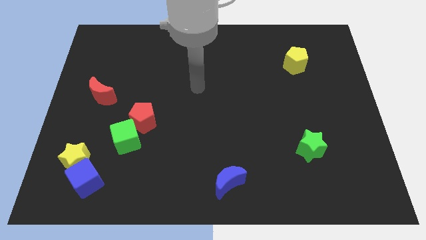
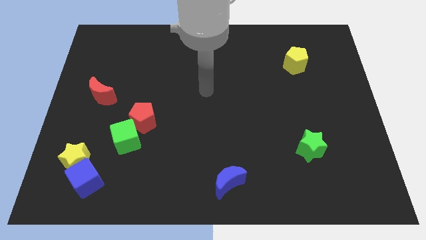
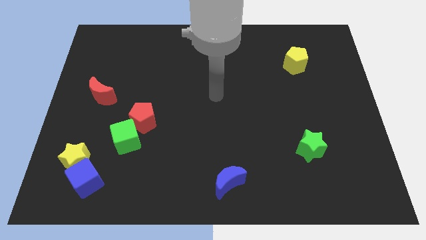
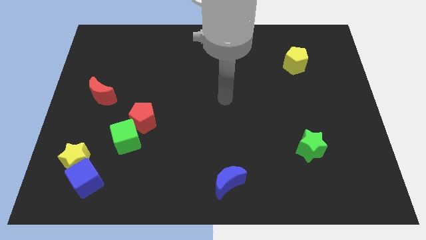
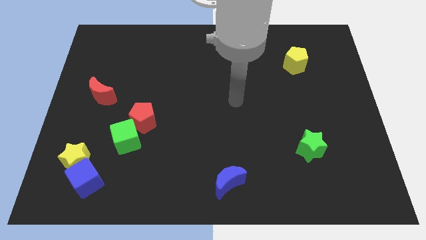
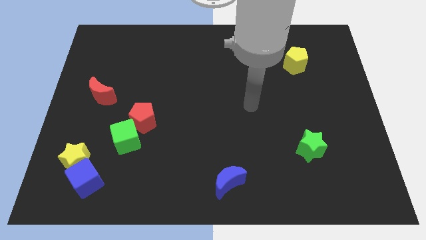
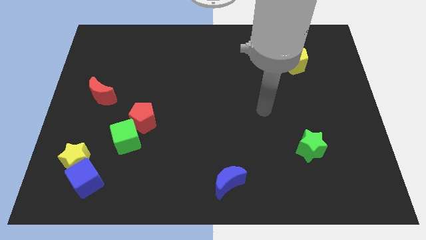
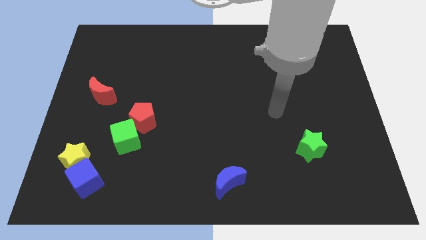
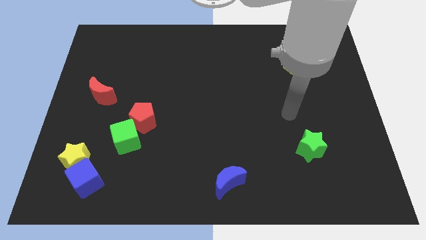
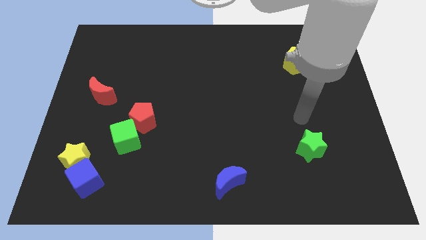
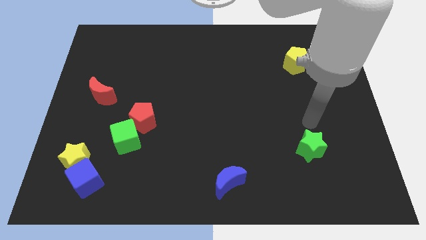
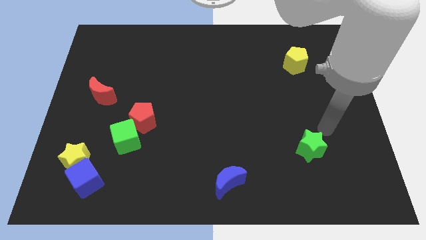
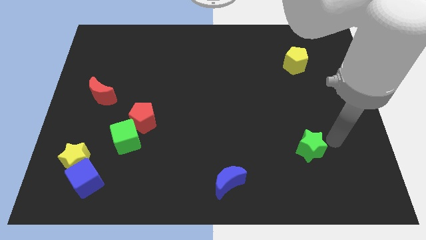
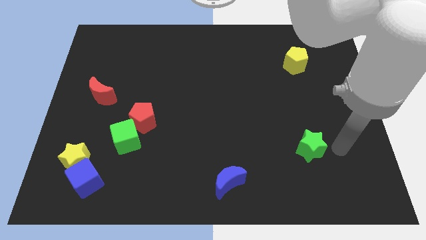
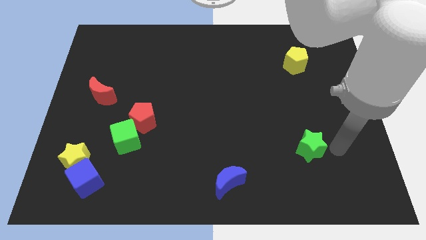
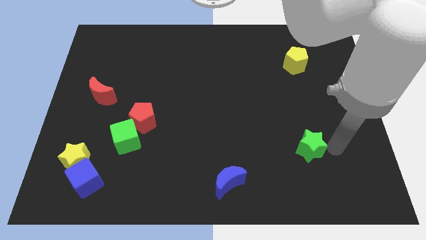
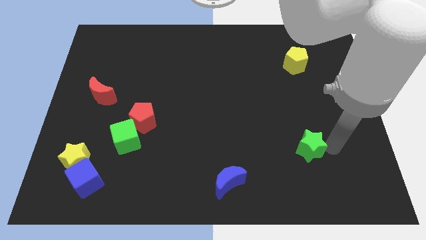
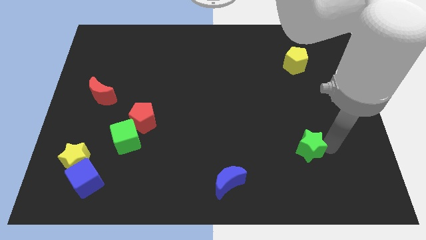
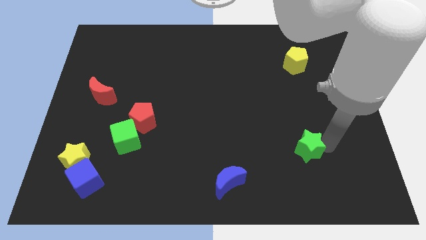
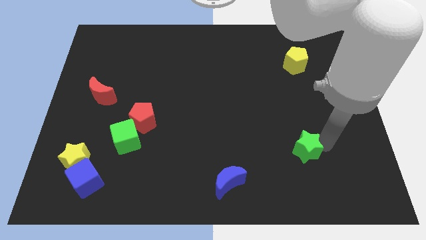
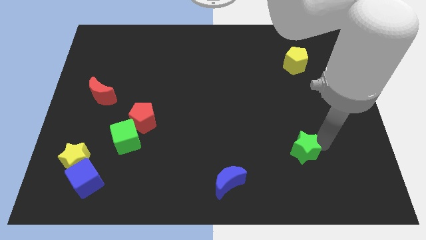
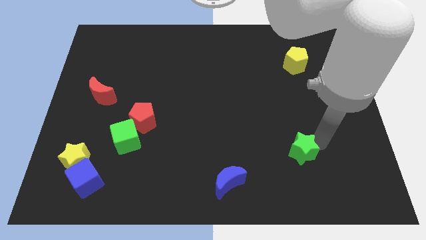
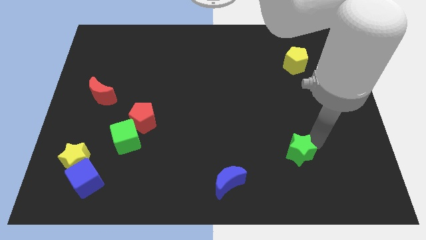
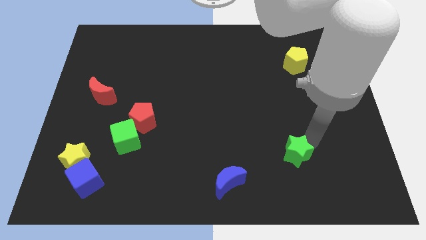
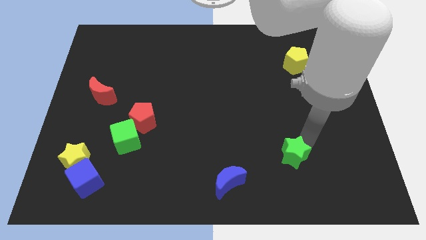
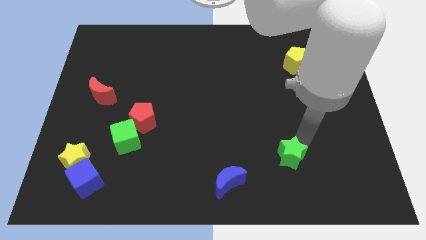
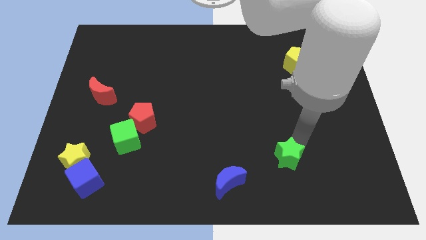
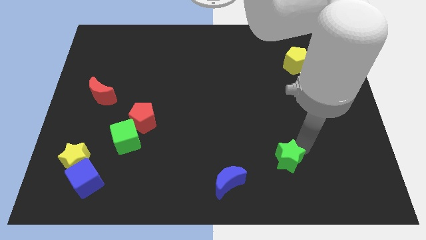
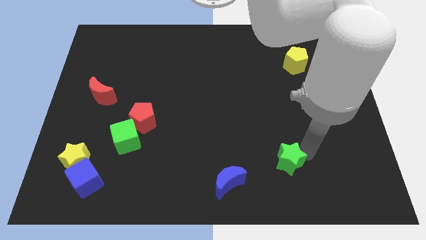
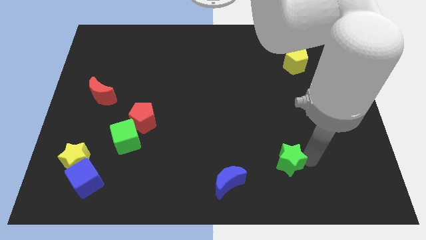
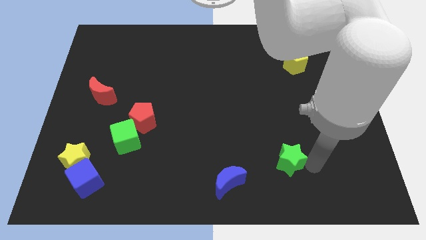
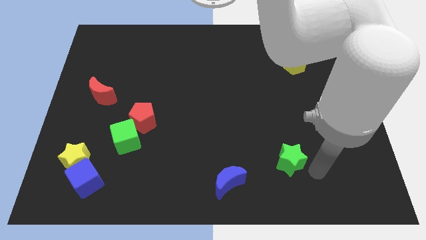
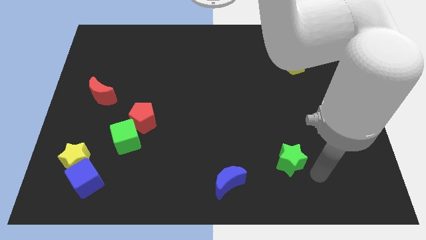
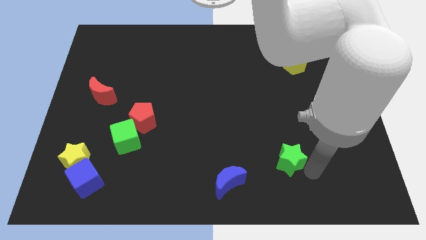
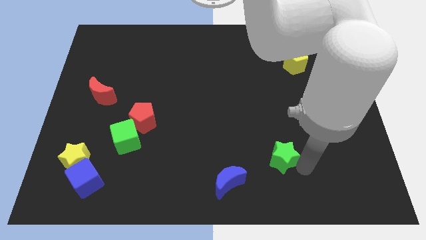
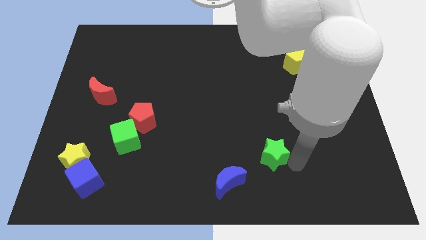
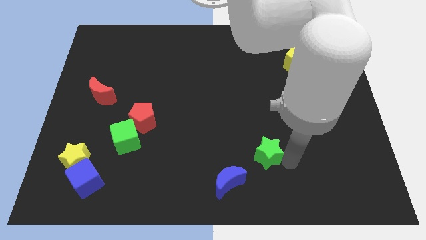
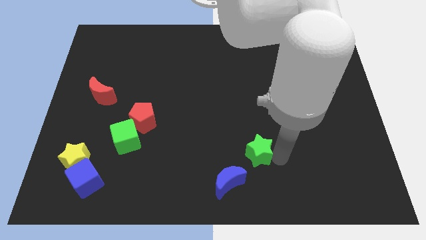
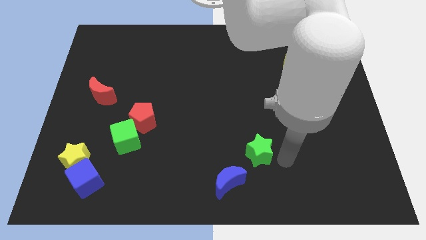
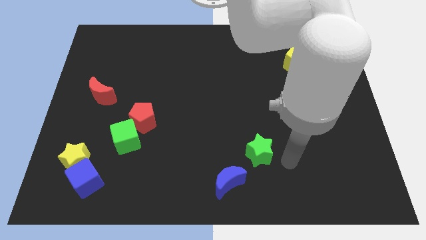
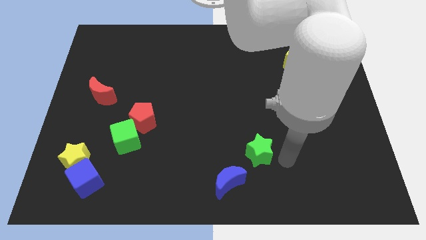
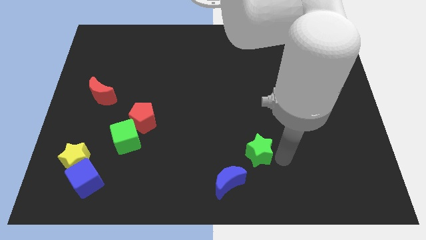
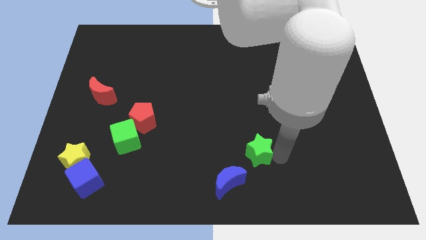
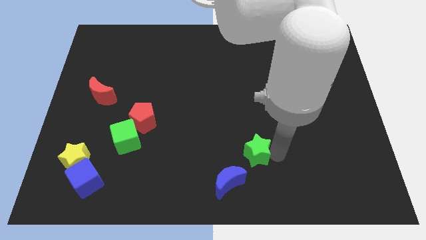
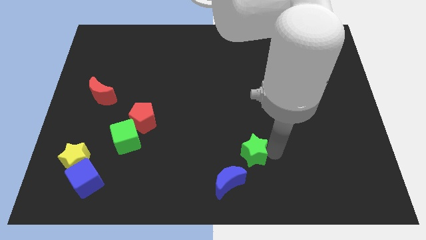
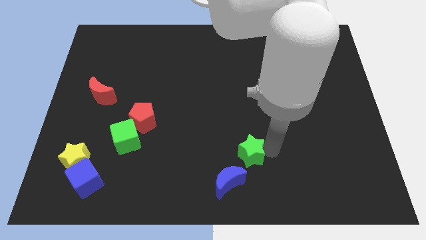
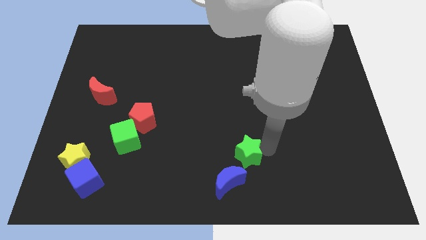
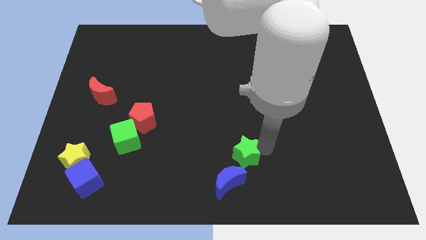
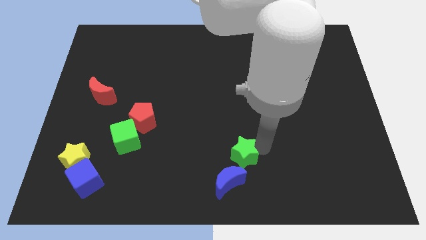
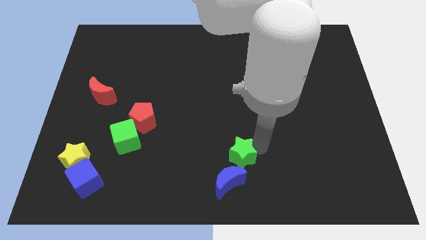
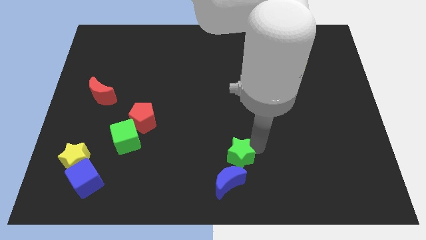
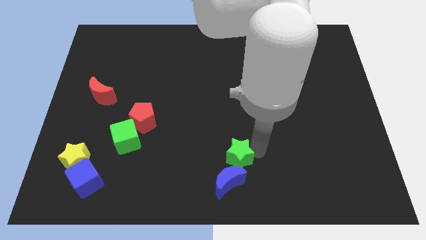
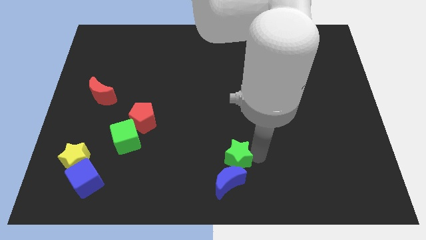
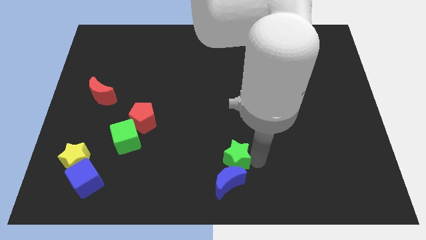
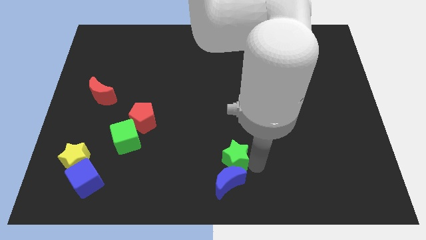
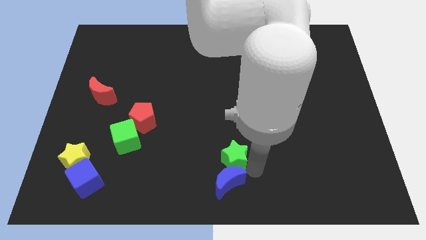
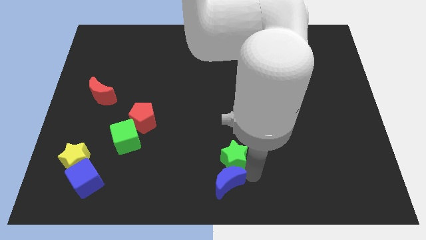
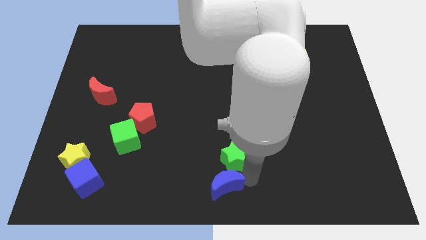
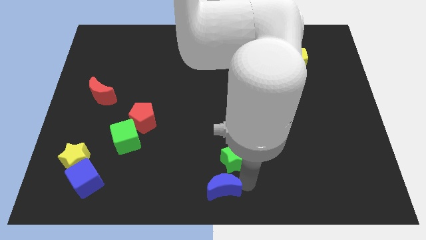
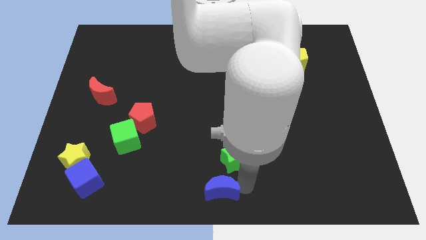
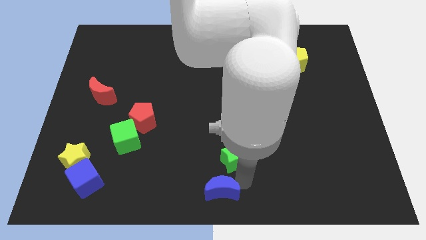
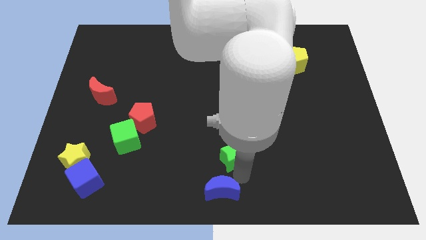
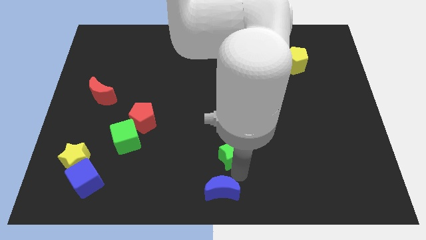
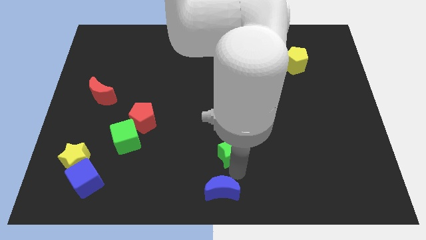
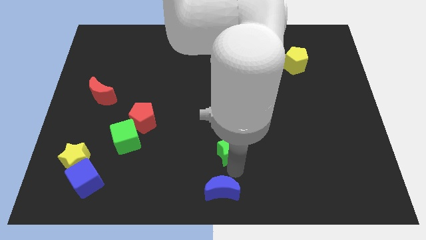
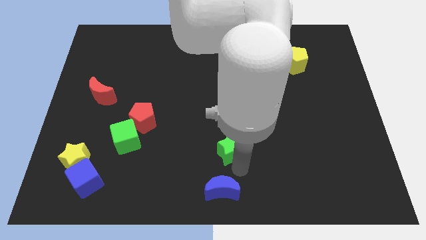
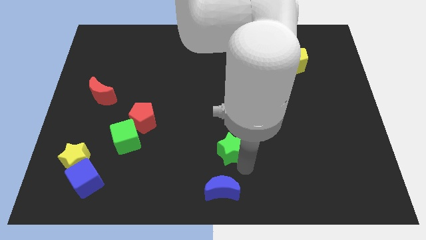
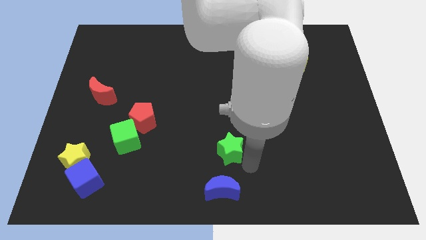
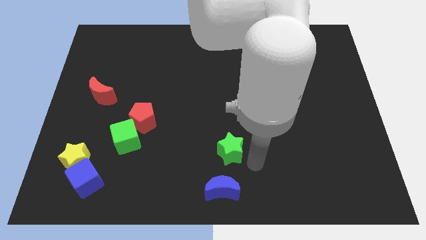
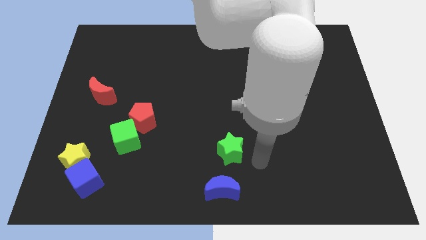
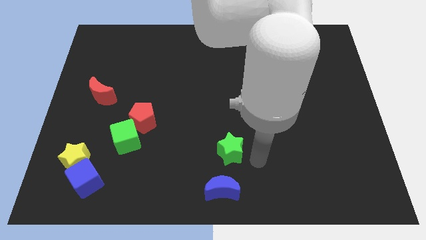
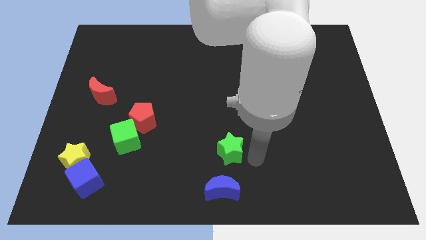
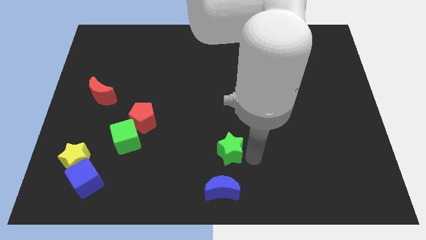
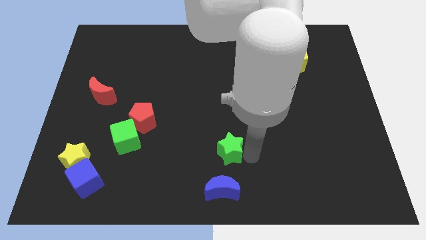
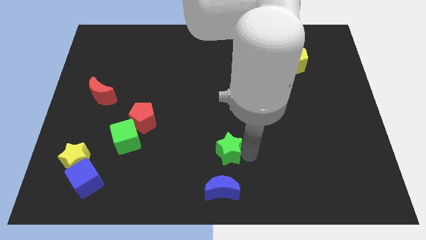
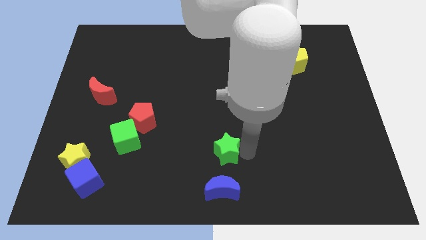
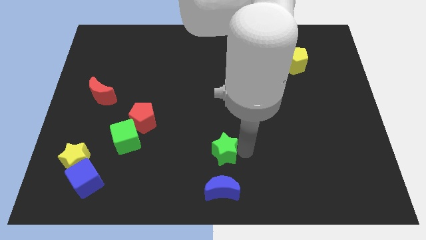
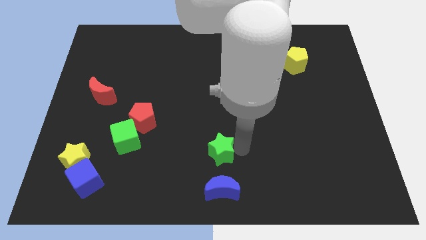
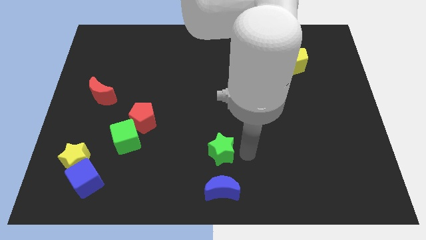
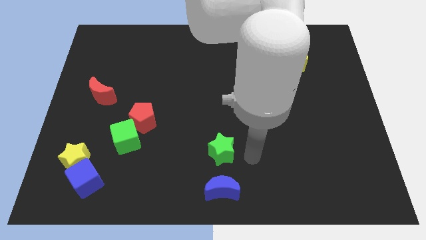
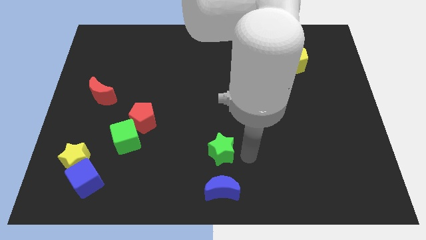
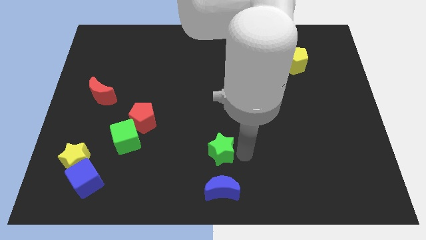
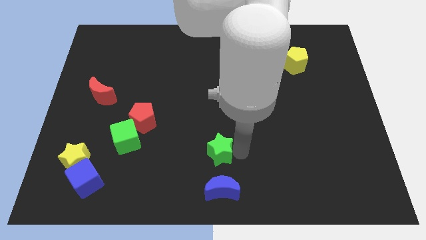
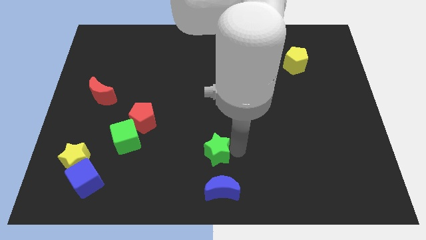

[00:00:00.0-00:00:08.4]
slide the green star left
